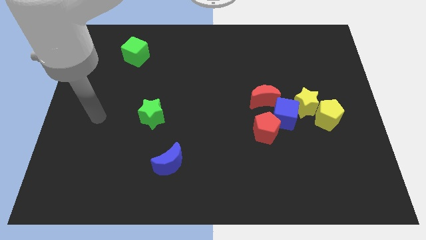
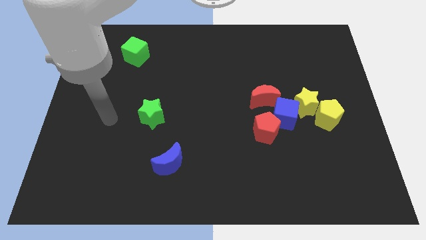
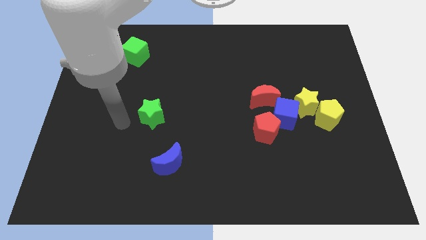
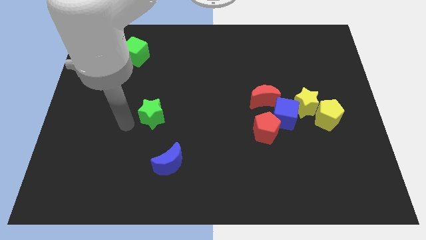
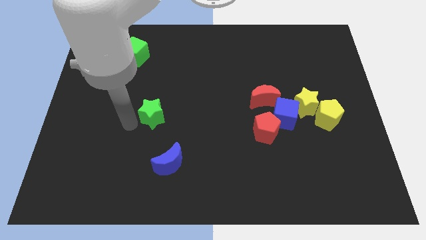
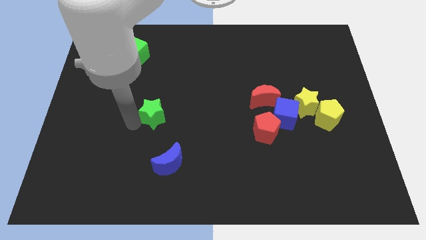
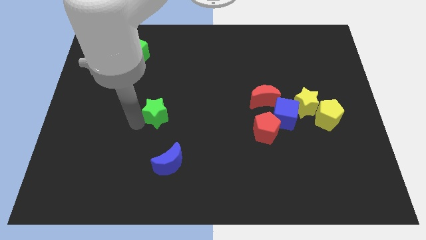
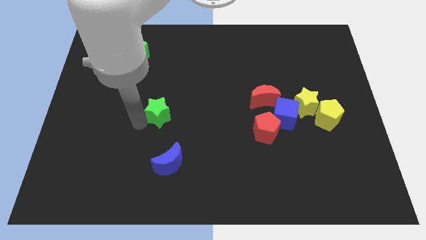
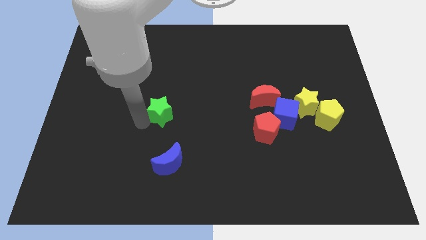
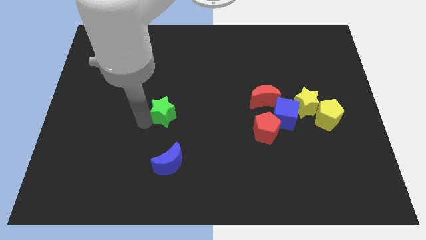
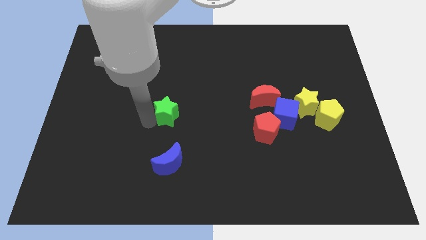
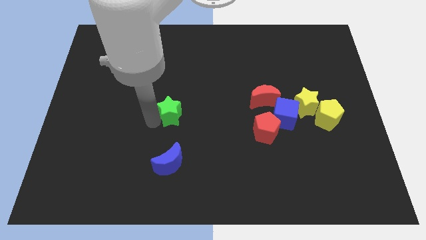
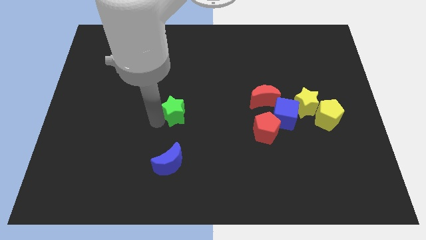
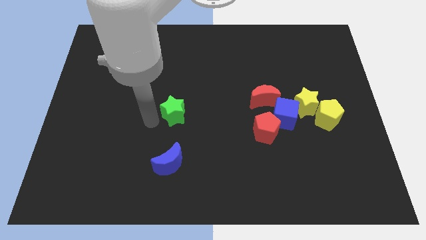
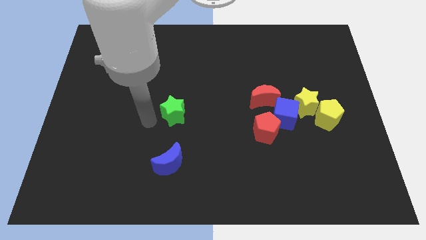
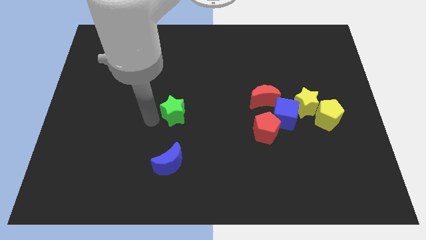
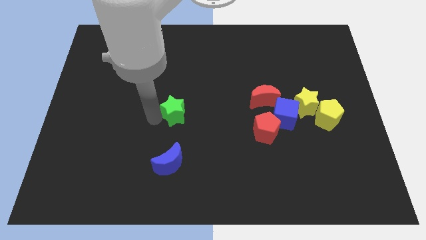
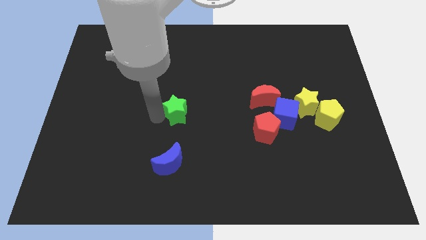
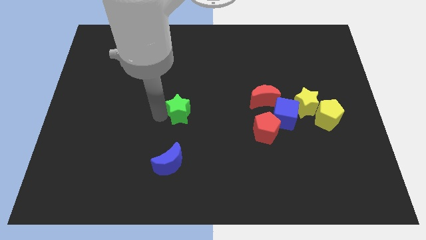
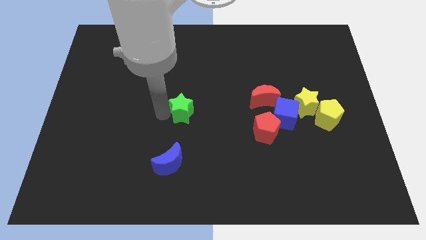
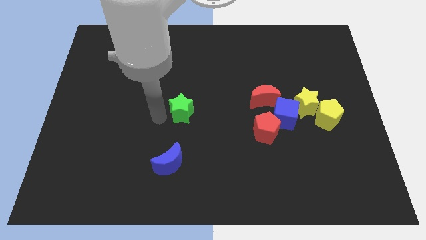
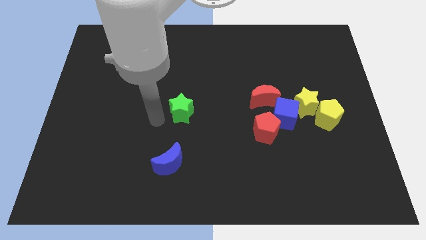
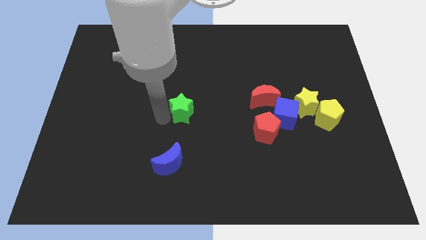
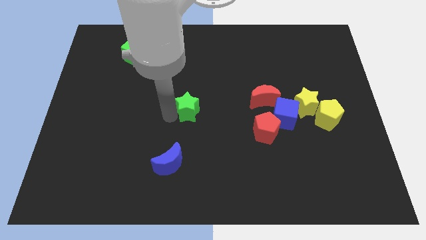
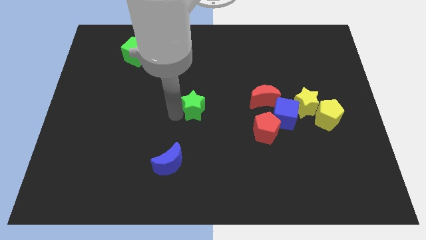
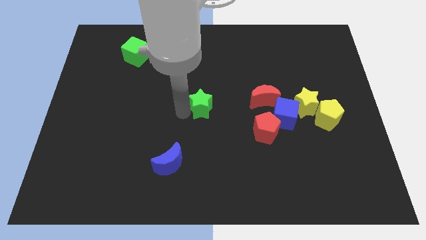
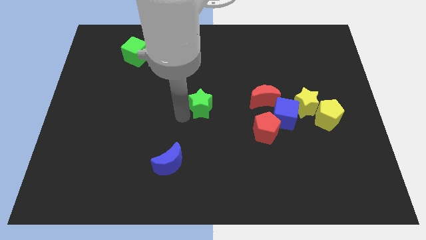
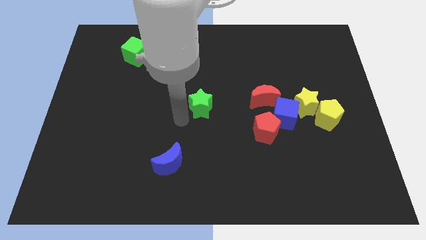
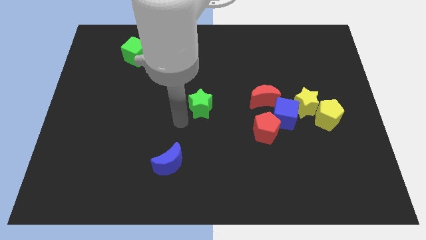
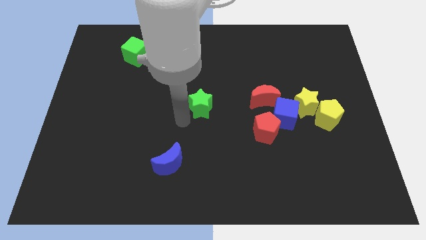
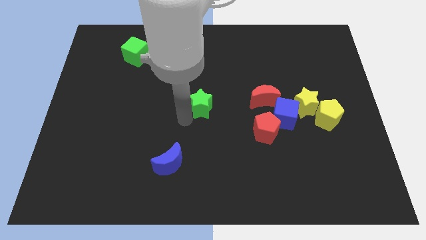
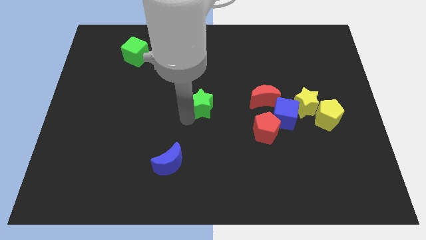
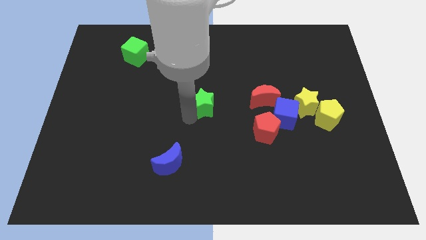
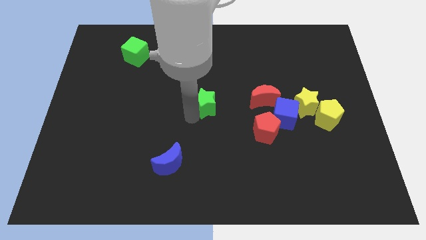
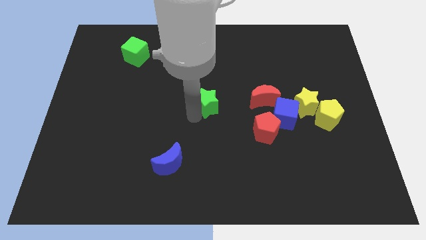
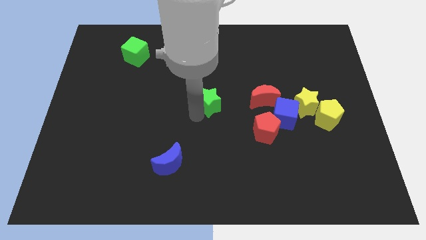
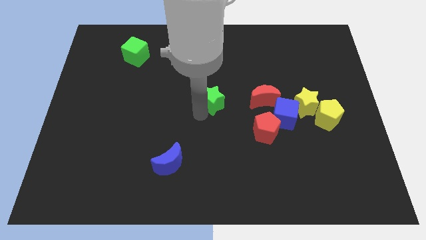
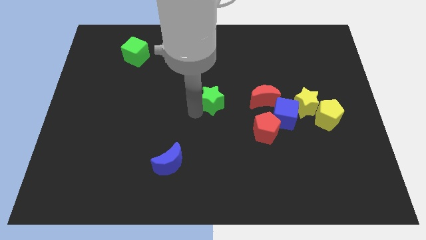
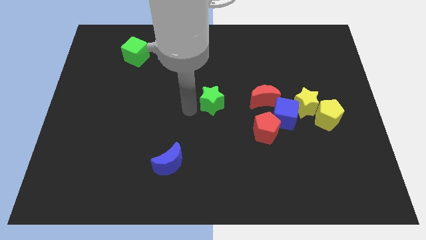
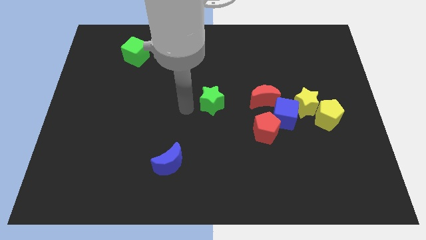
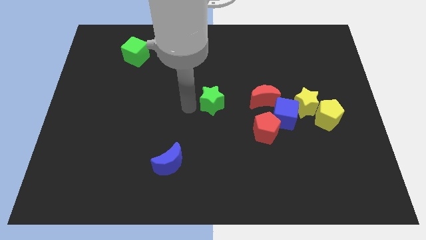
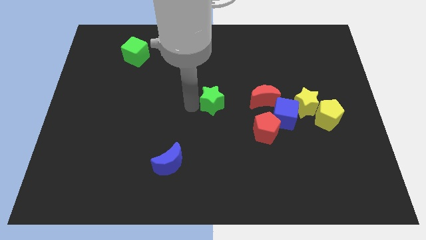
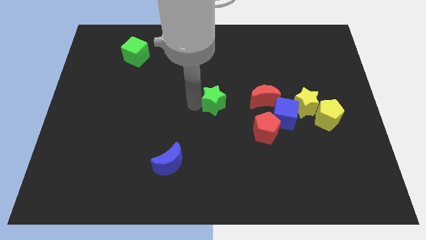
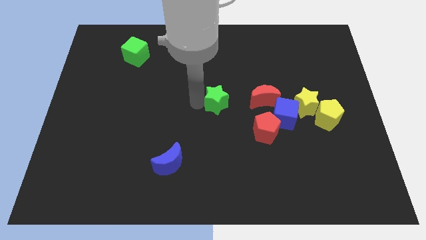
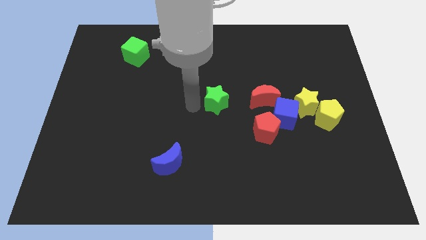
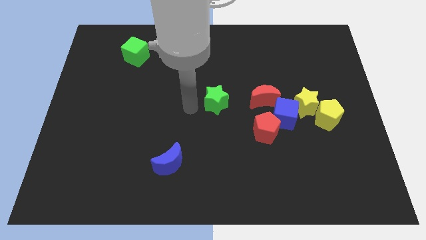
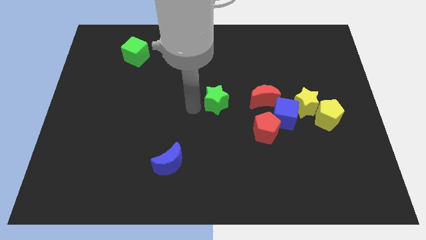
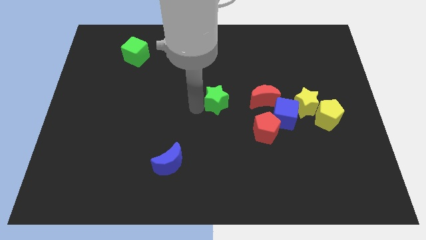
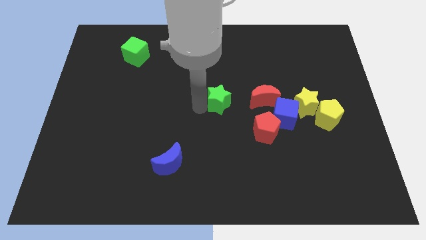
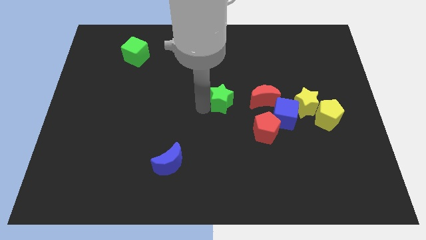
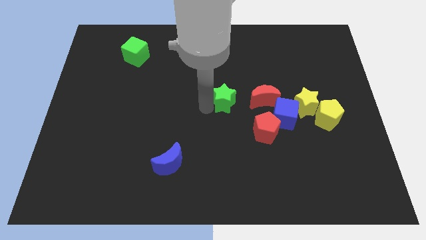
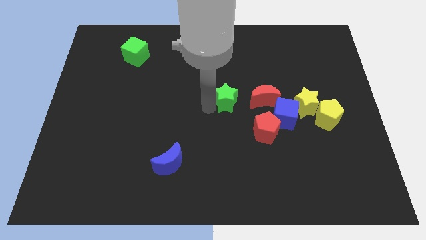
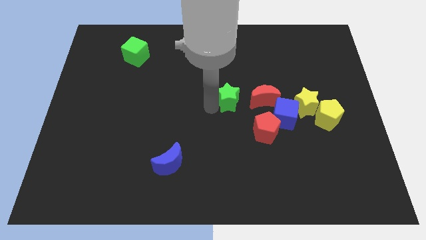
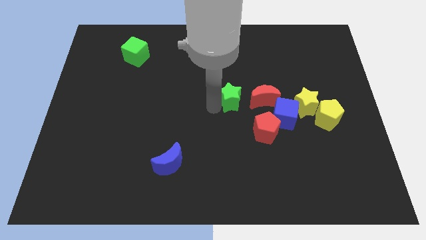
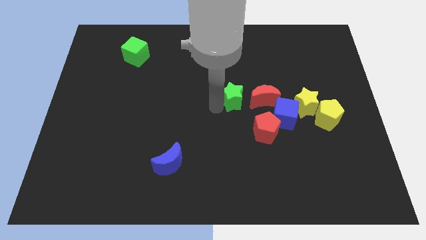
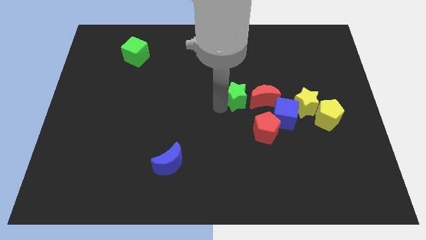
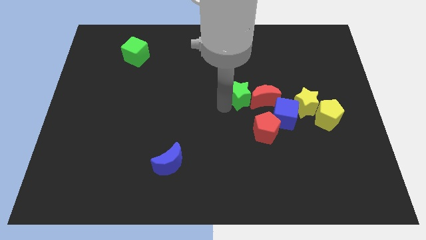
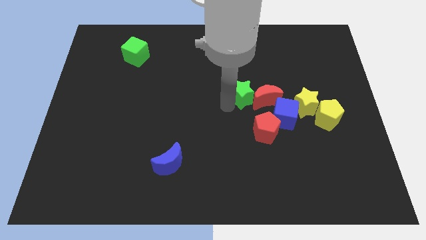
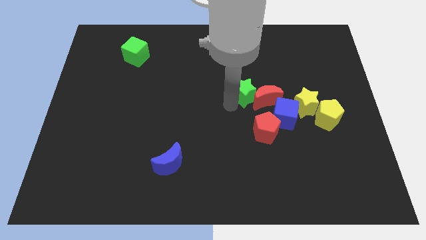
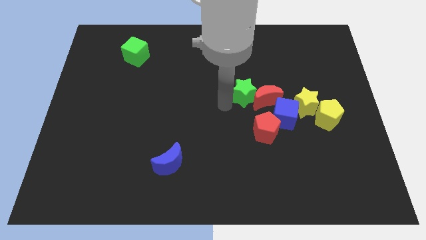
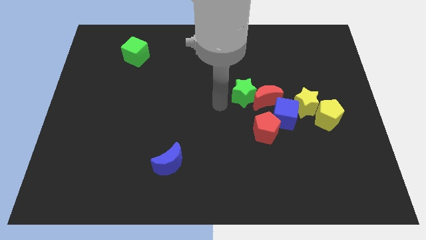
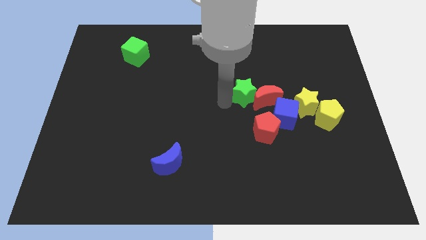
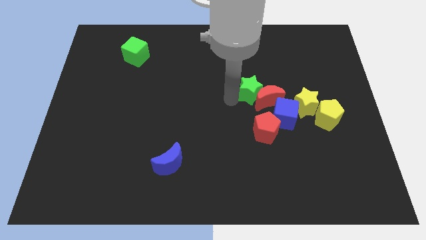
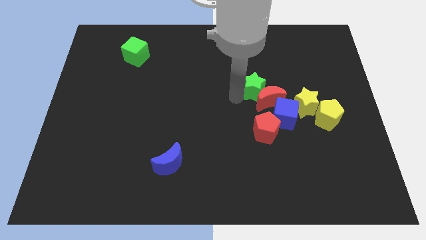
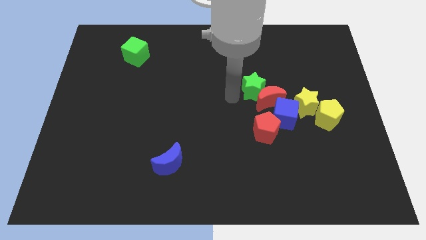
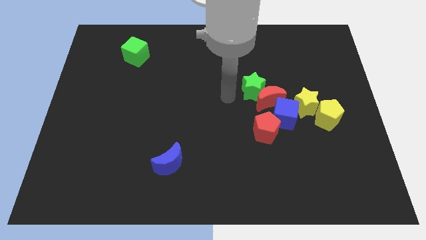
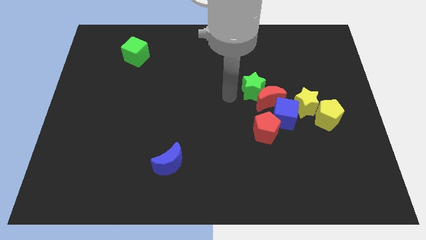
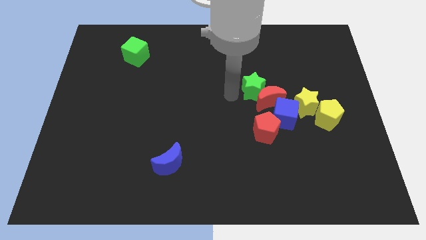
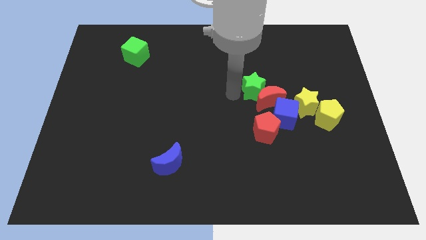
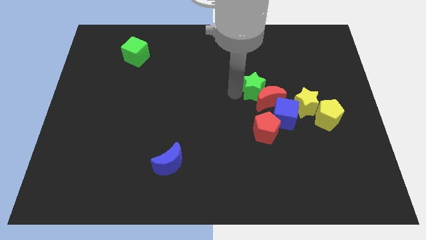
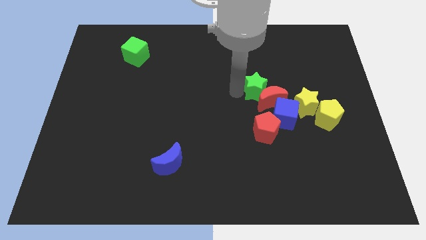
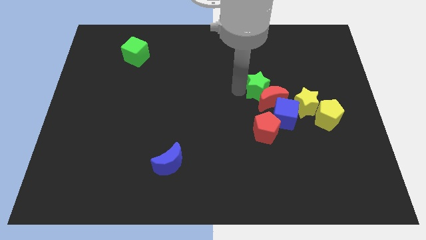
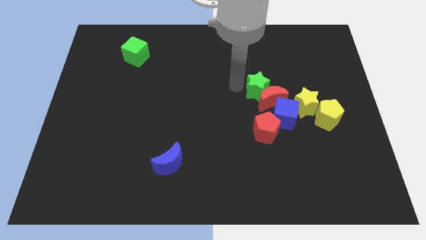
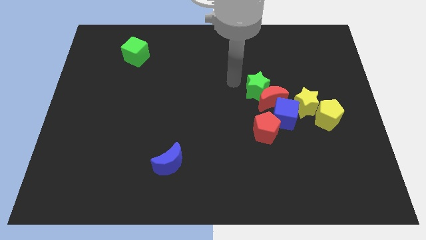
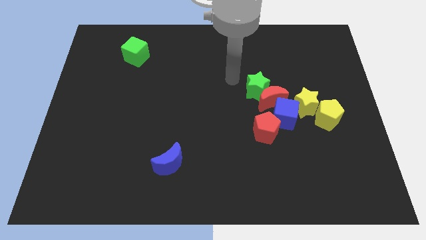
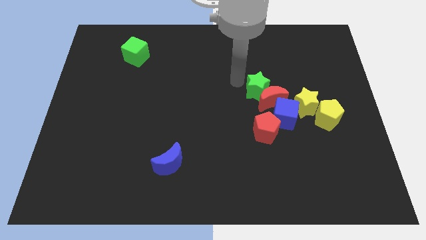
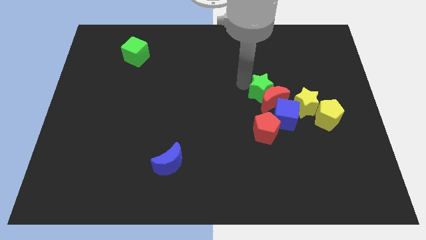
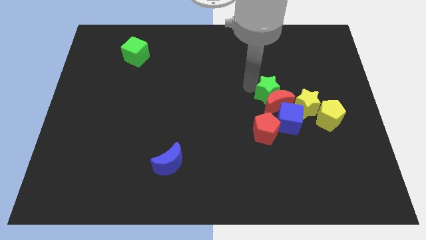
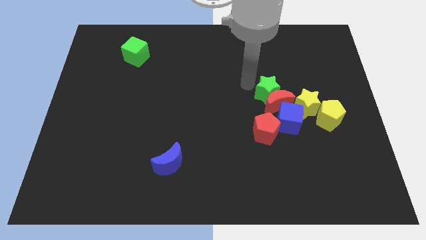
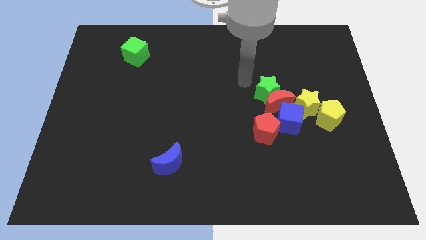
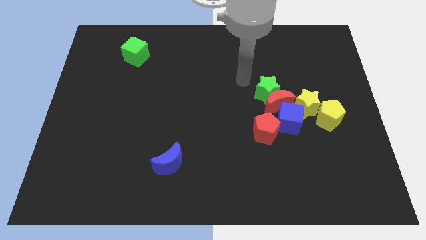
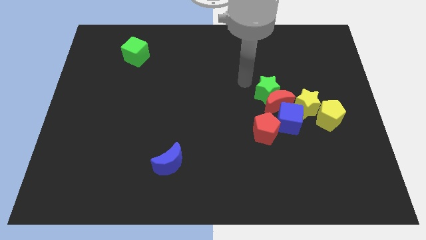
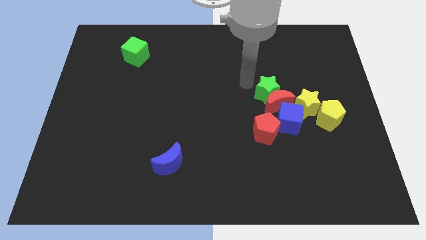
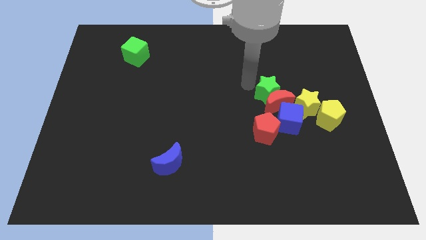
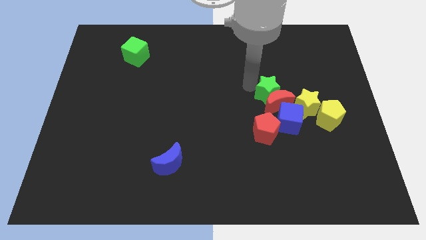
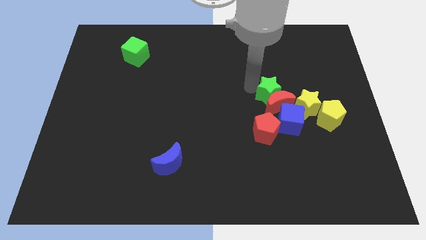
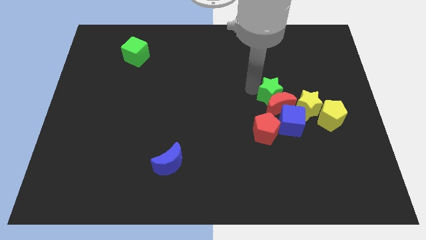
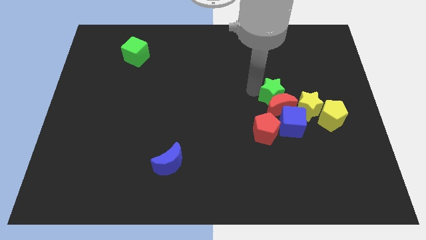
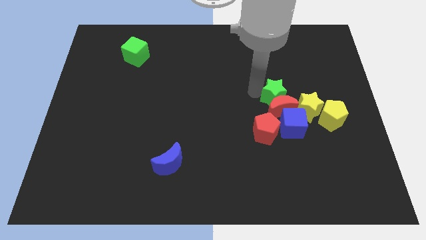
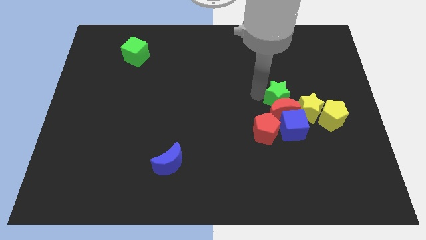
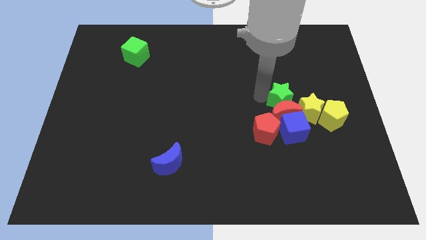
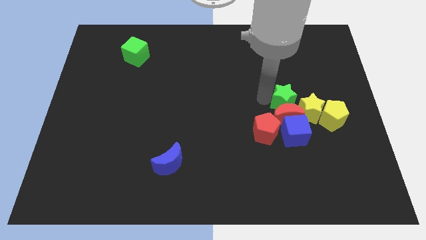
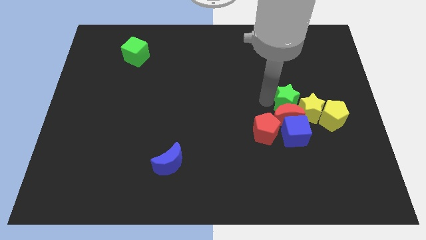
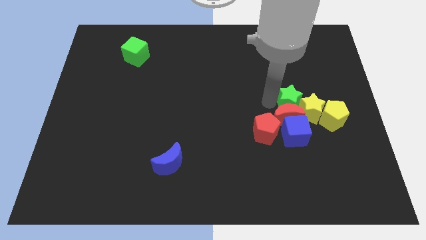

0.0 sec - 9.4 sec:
push the green star towards the yellow star
